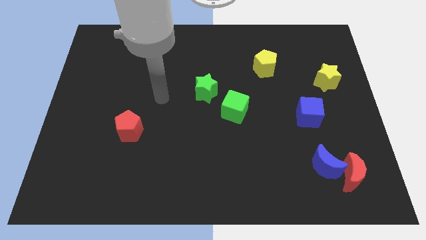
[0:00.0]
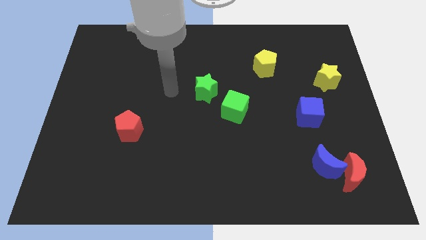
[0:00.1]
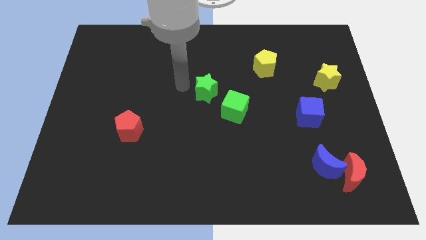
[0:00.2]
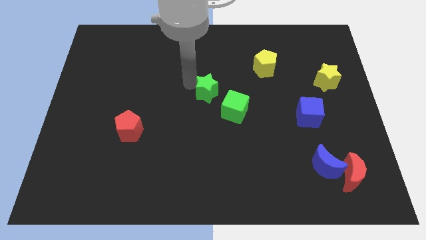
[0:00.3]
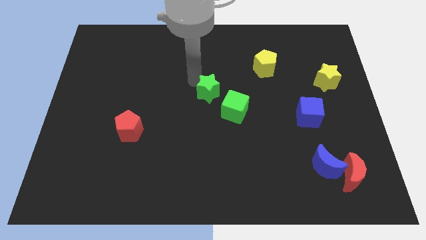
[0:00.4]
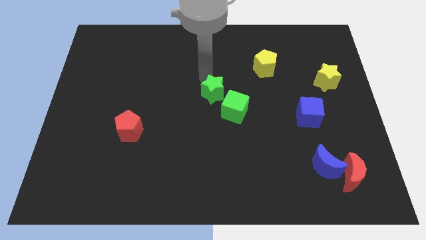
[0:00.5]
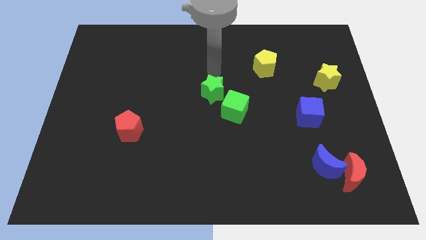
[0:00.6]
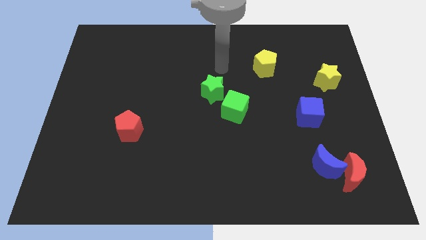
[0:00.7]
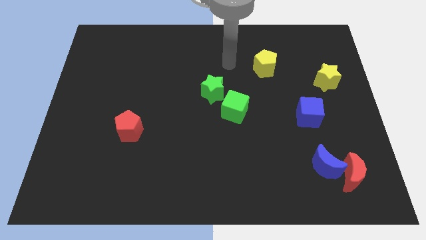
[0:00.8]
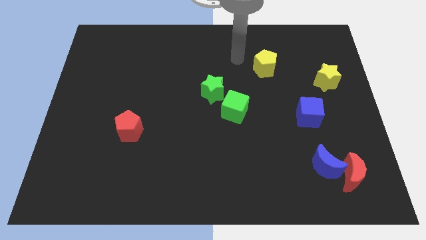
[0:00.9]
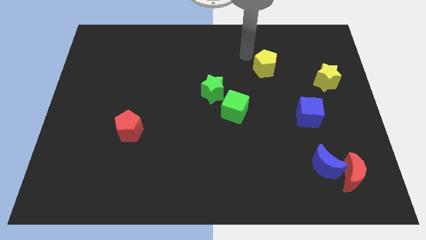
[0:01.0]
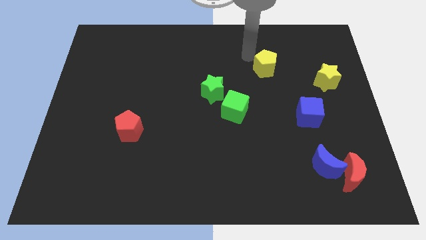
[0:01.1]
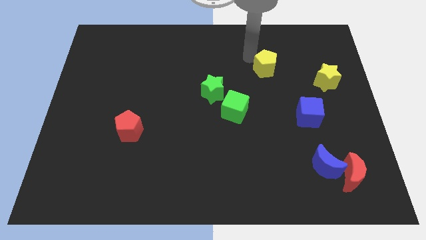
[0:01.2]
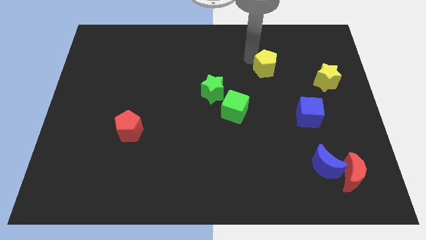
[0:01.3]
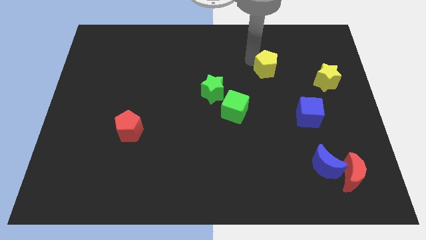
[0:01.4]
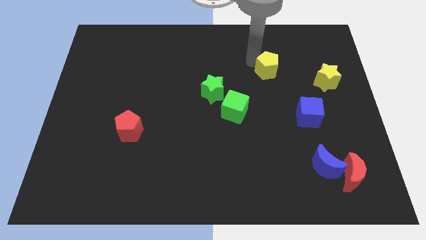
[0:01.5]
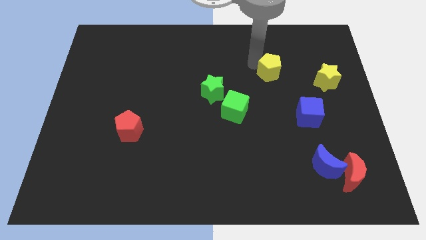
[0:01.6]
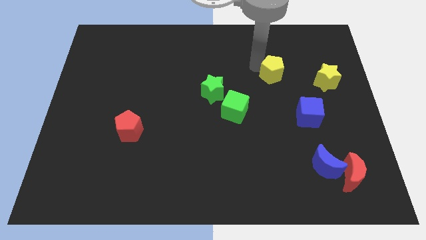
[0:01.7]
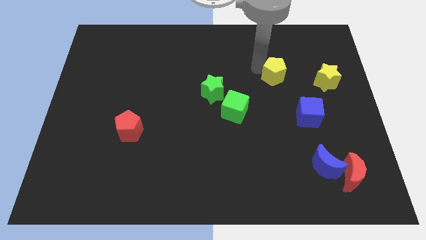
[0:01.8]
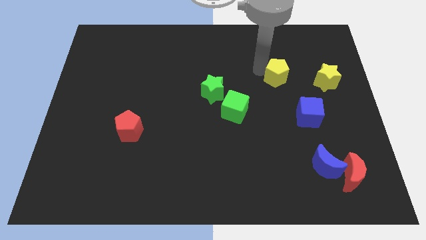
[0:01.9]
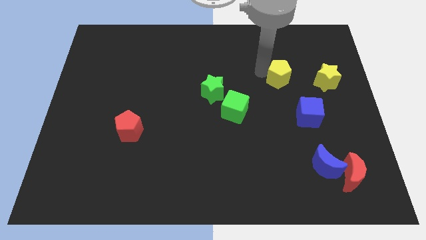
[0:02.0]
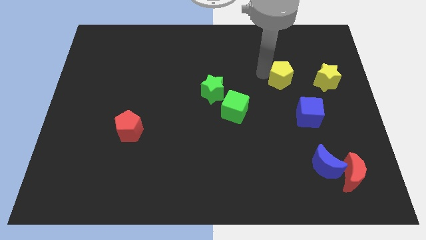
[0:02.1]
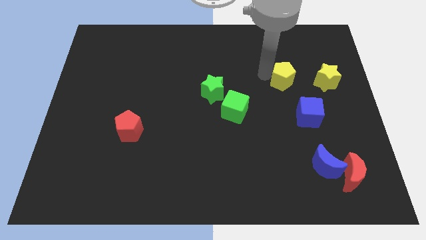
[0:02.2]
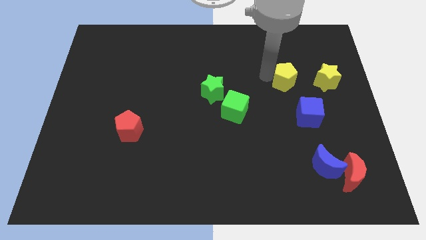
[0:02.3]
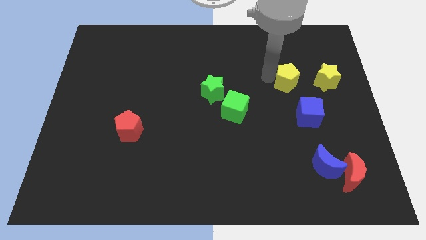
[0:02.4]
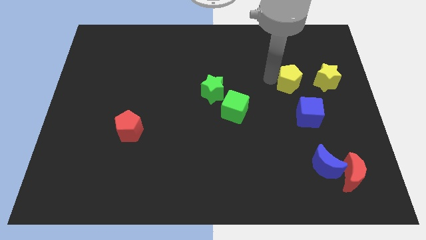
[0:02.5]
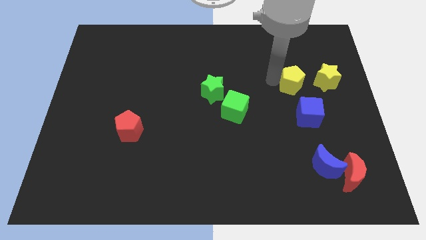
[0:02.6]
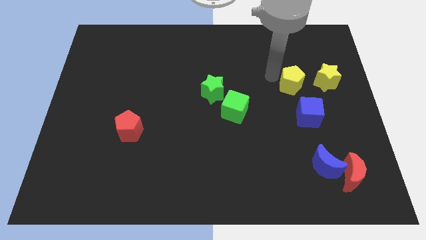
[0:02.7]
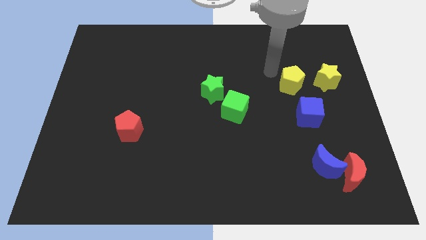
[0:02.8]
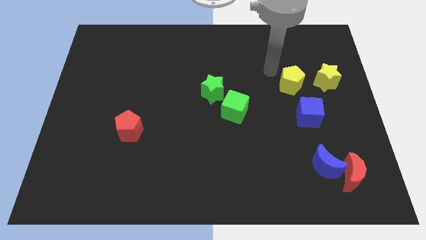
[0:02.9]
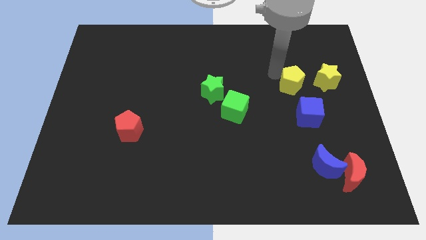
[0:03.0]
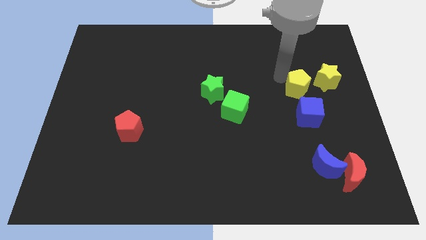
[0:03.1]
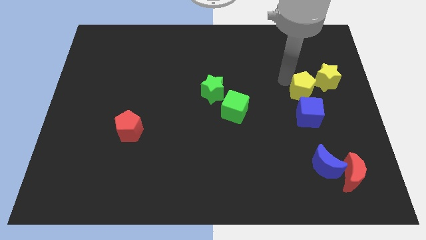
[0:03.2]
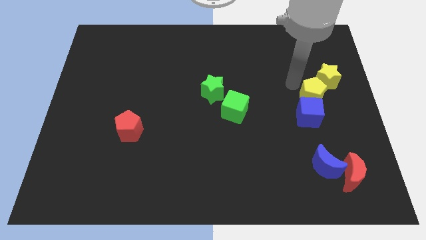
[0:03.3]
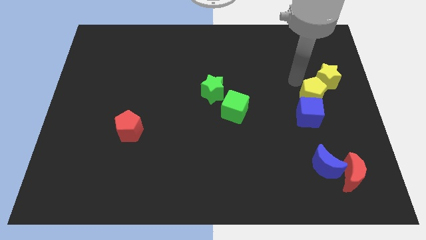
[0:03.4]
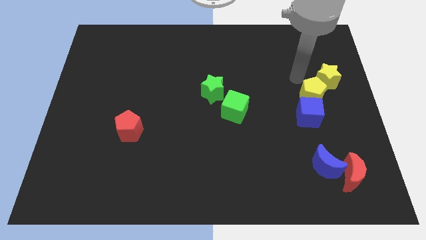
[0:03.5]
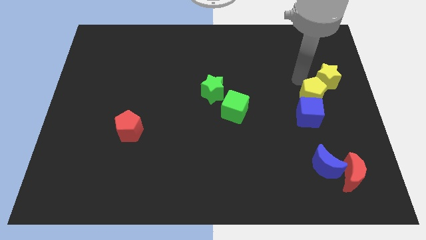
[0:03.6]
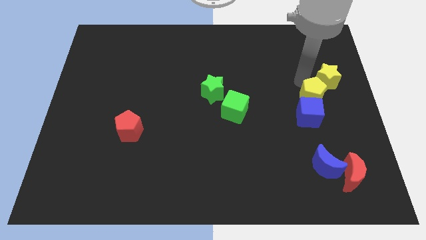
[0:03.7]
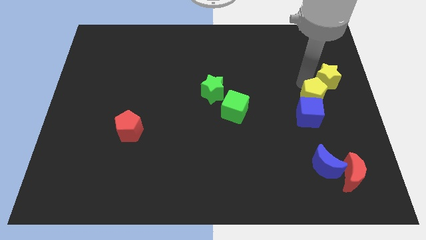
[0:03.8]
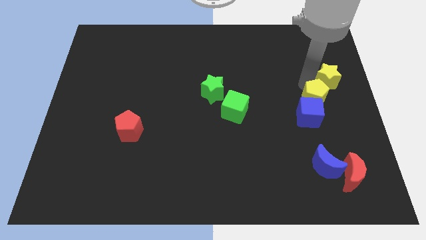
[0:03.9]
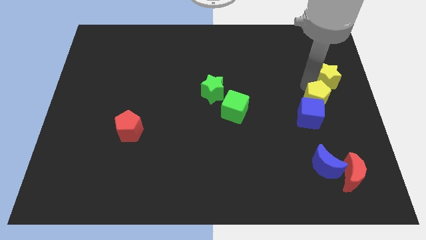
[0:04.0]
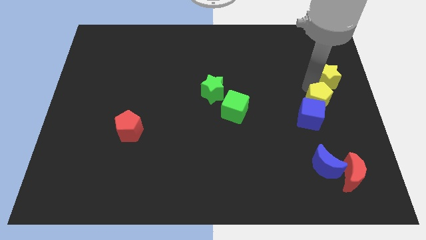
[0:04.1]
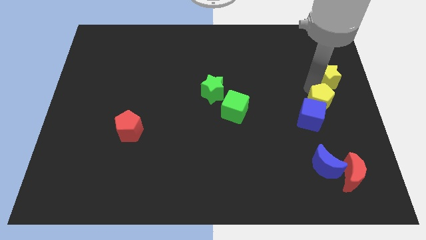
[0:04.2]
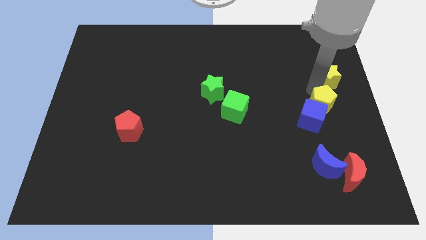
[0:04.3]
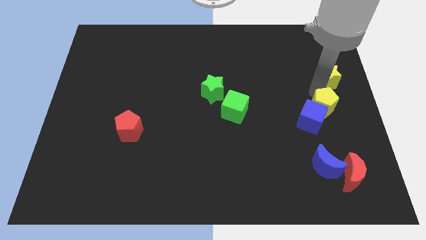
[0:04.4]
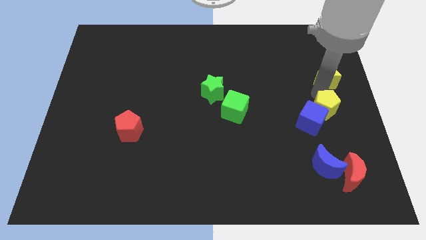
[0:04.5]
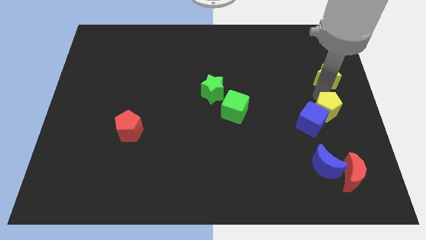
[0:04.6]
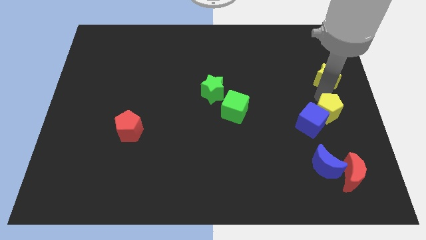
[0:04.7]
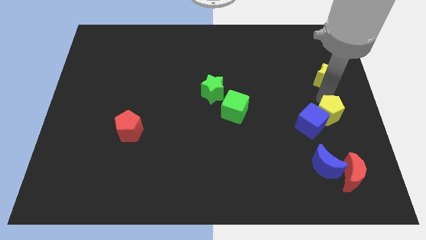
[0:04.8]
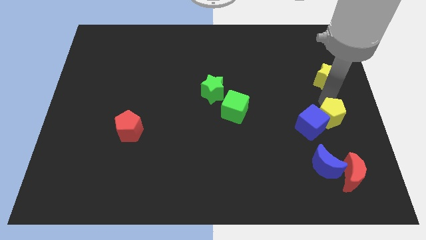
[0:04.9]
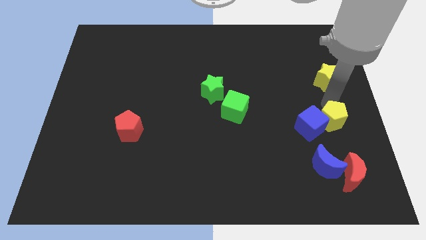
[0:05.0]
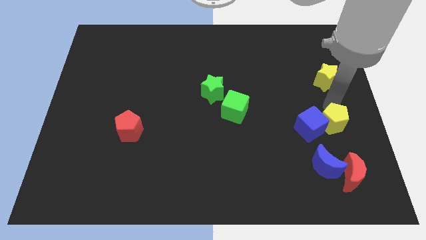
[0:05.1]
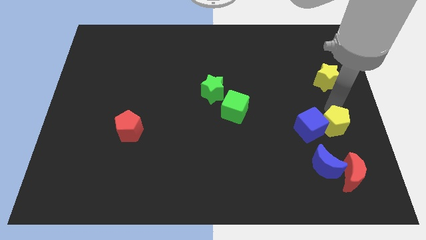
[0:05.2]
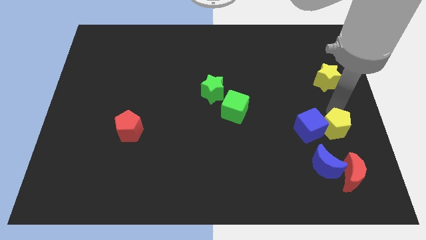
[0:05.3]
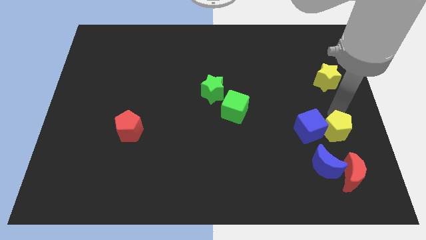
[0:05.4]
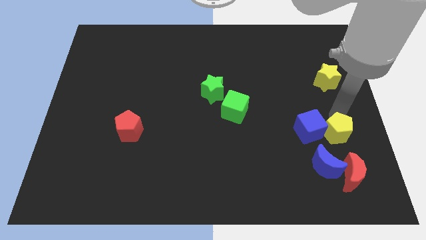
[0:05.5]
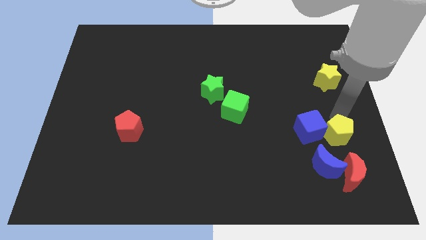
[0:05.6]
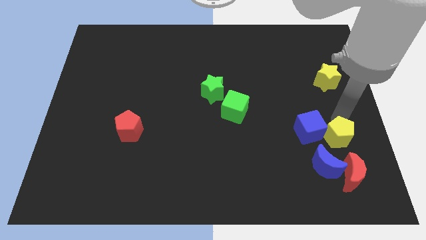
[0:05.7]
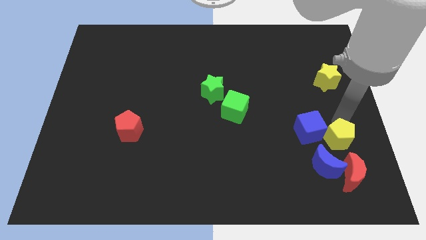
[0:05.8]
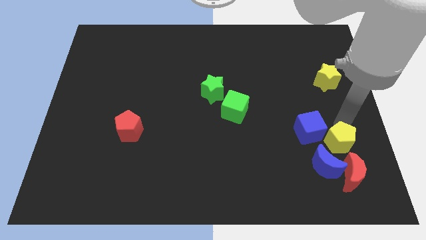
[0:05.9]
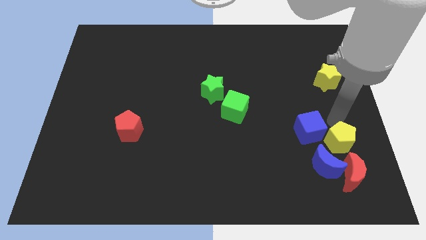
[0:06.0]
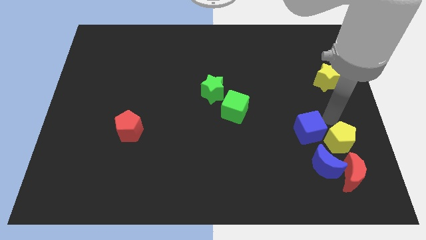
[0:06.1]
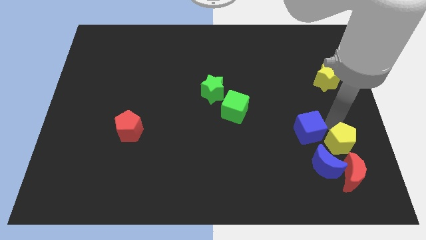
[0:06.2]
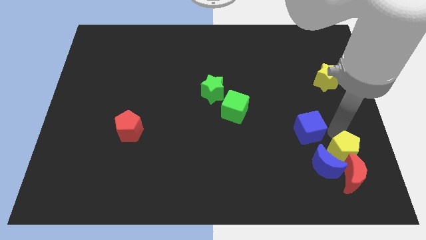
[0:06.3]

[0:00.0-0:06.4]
push the yellow pentagon to the red moon

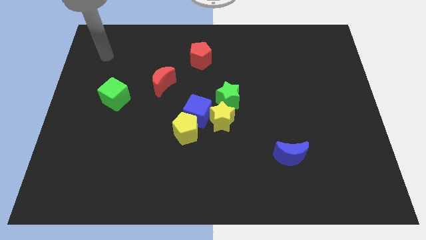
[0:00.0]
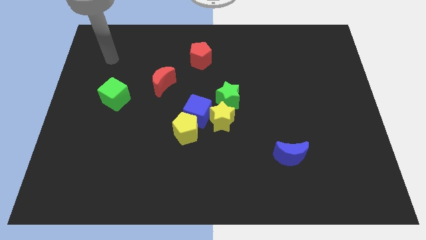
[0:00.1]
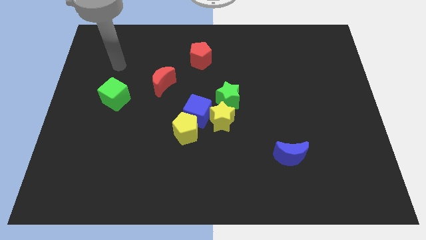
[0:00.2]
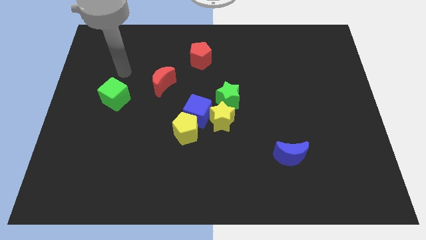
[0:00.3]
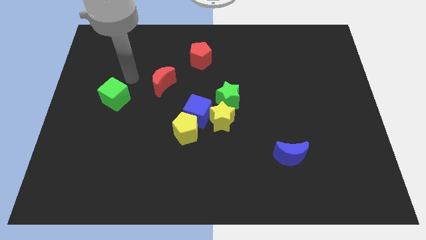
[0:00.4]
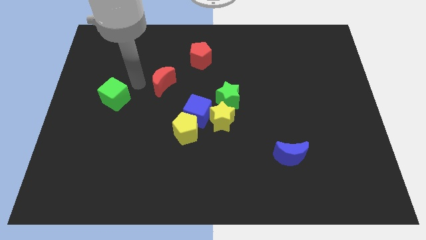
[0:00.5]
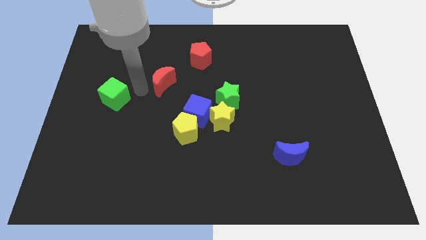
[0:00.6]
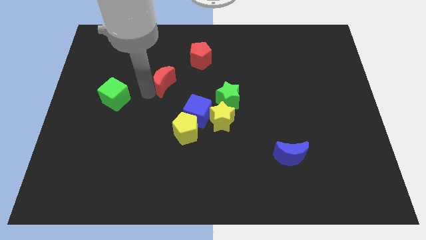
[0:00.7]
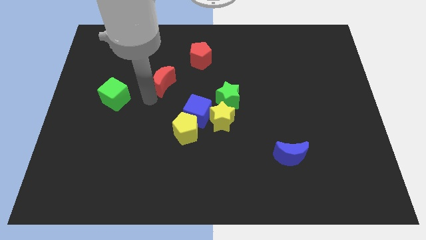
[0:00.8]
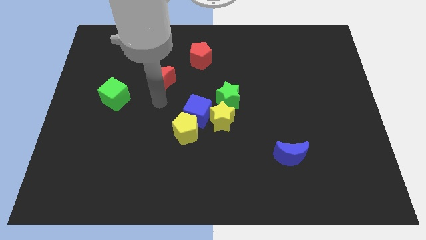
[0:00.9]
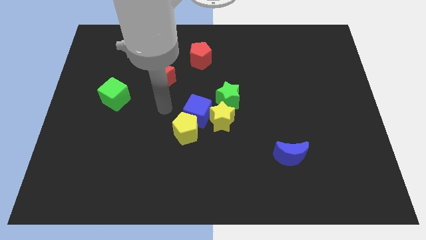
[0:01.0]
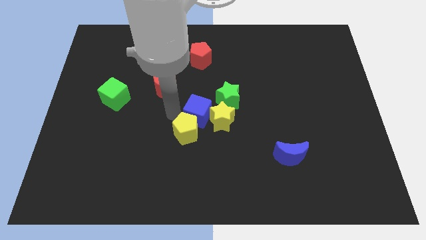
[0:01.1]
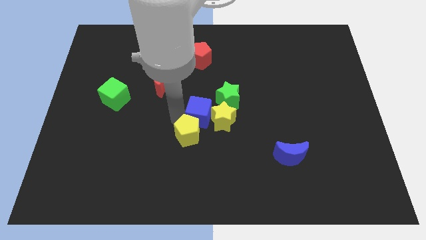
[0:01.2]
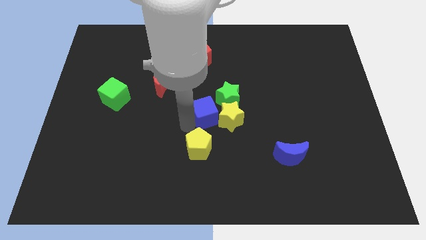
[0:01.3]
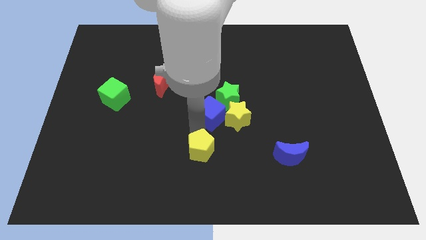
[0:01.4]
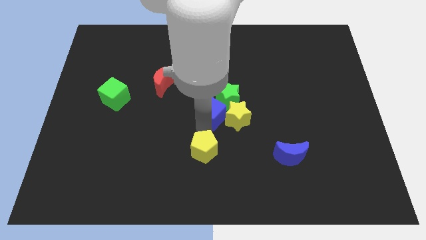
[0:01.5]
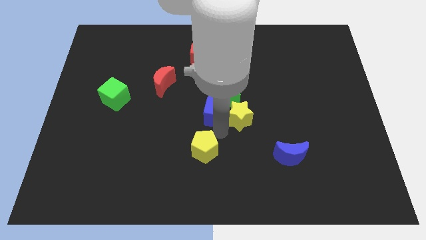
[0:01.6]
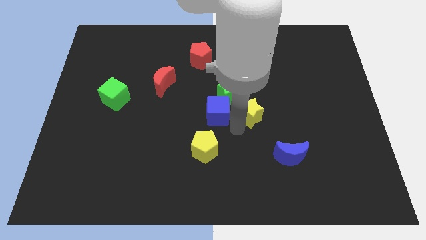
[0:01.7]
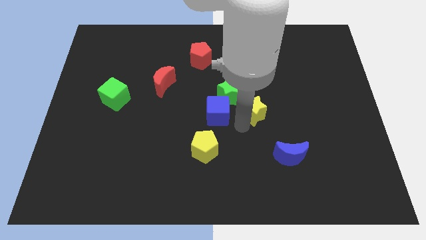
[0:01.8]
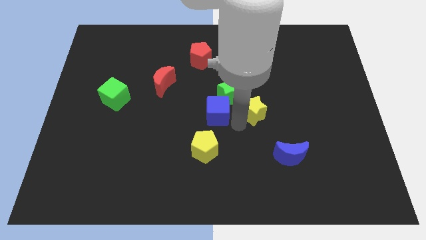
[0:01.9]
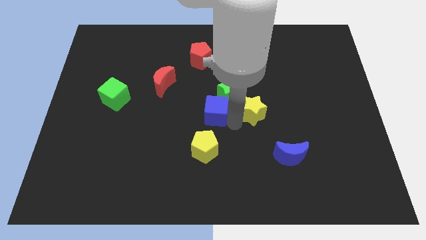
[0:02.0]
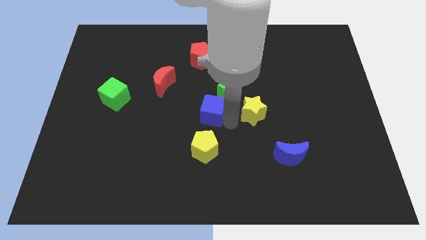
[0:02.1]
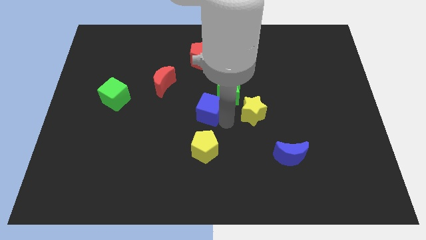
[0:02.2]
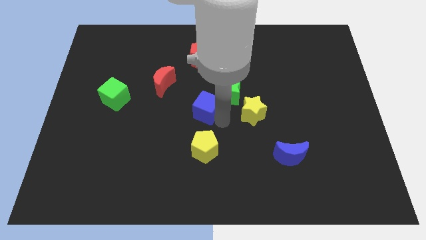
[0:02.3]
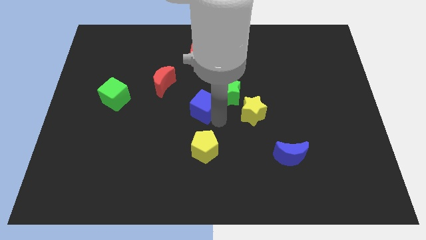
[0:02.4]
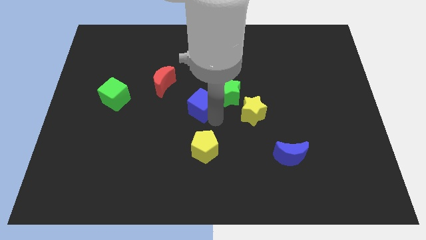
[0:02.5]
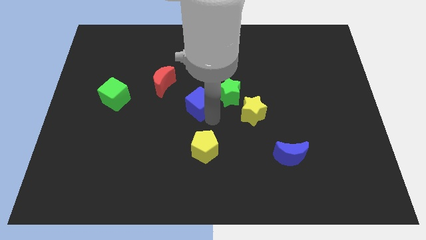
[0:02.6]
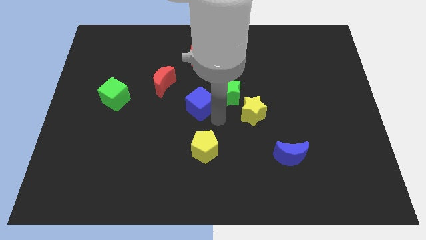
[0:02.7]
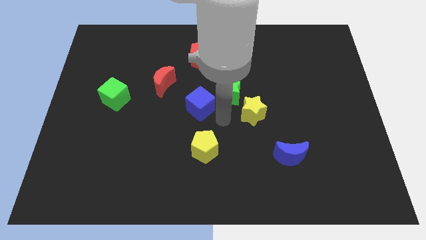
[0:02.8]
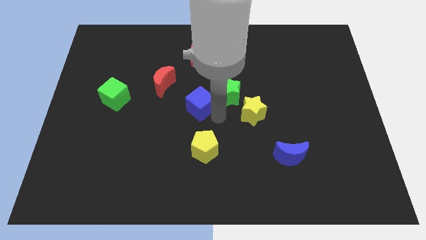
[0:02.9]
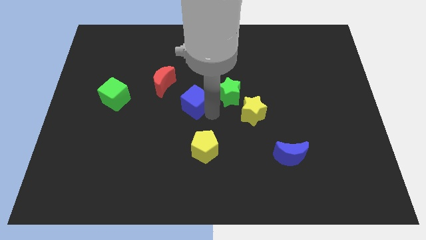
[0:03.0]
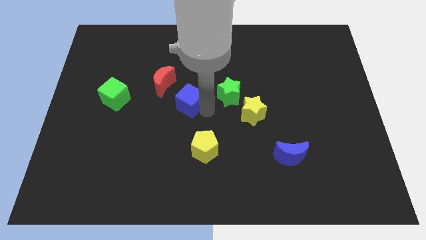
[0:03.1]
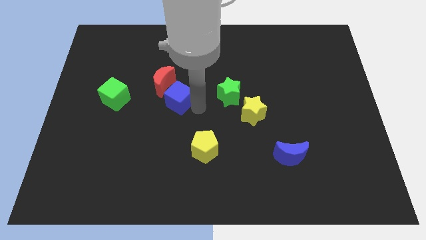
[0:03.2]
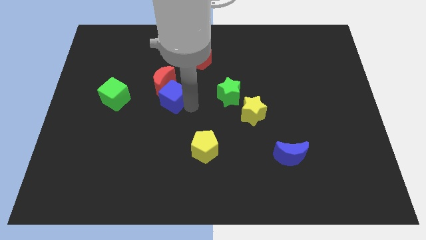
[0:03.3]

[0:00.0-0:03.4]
move the blue cube next to the red moon
